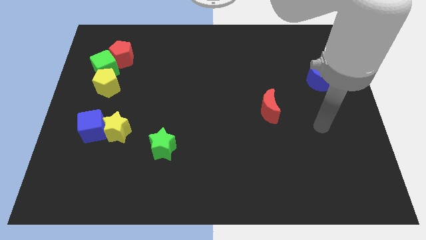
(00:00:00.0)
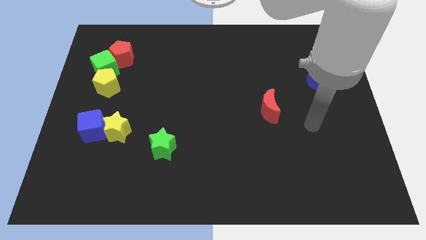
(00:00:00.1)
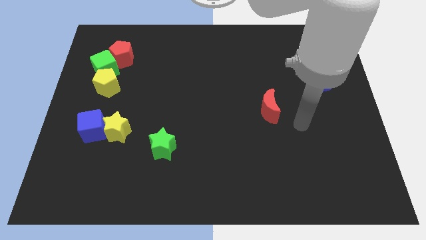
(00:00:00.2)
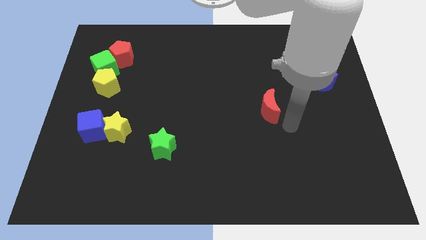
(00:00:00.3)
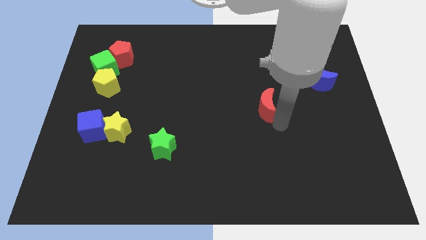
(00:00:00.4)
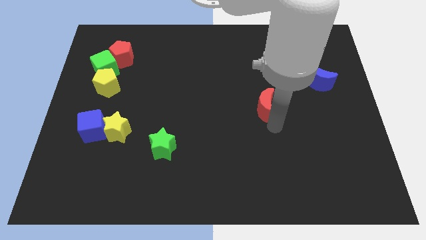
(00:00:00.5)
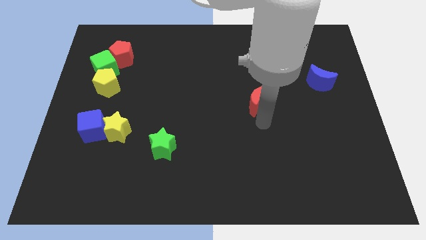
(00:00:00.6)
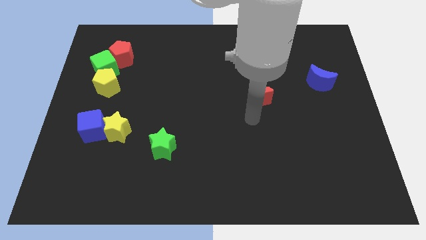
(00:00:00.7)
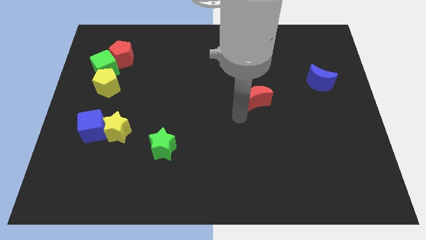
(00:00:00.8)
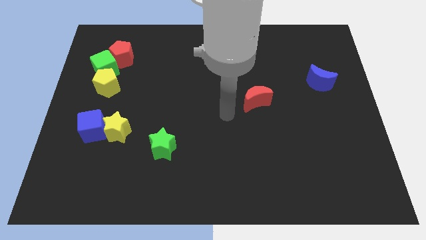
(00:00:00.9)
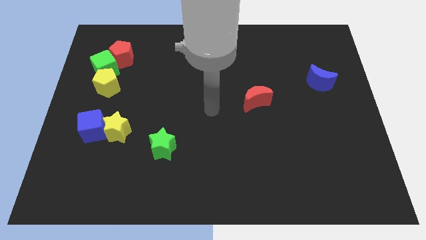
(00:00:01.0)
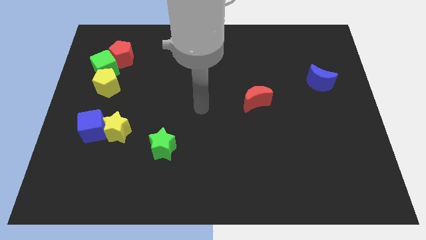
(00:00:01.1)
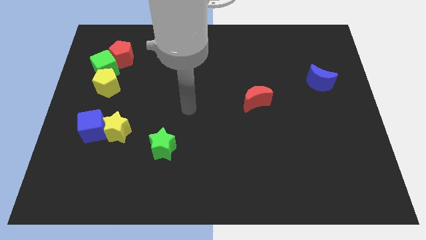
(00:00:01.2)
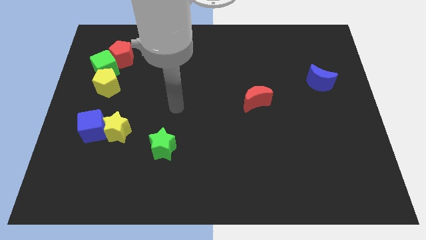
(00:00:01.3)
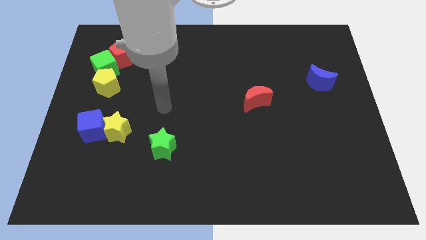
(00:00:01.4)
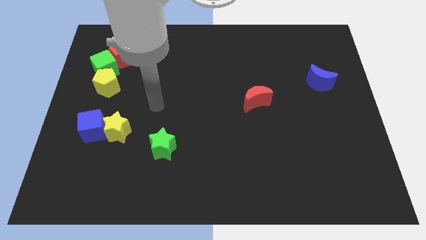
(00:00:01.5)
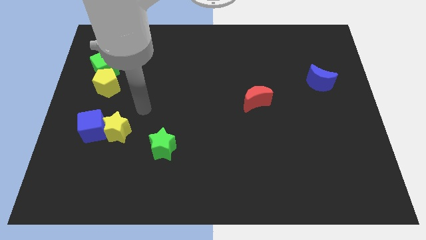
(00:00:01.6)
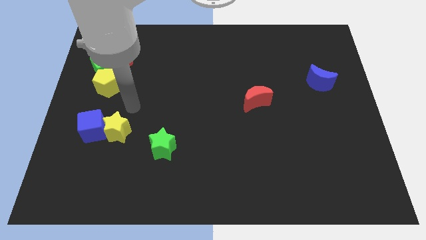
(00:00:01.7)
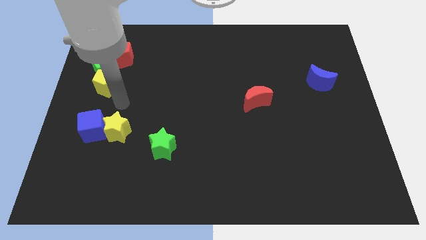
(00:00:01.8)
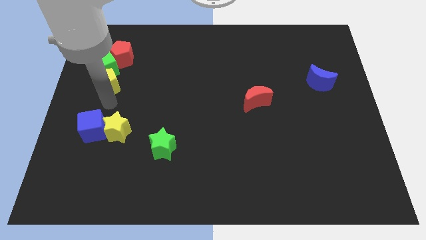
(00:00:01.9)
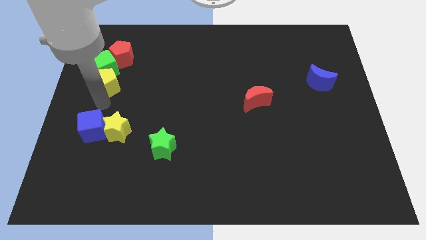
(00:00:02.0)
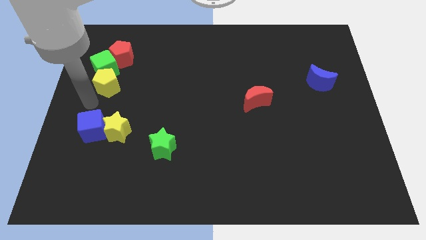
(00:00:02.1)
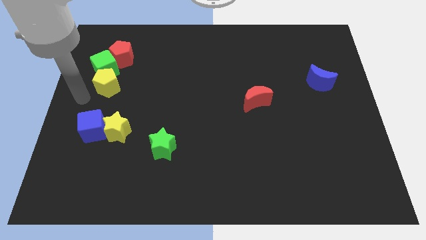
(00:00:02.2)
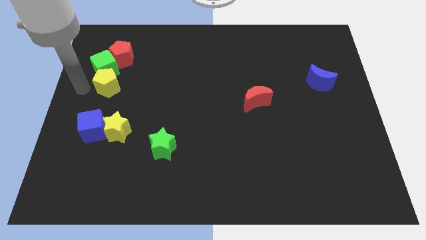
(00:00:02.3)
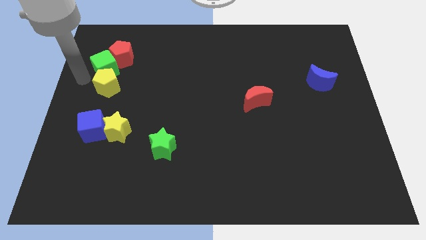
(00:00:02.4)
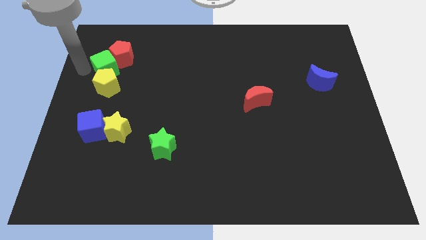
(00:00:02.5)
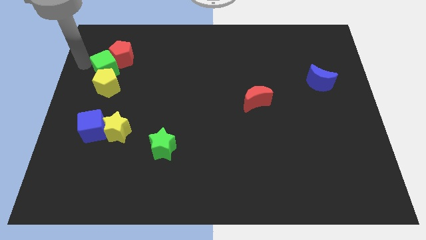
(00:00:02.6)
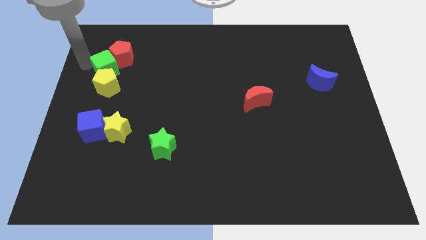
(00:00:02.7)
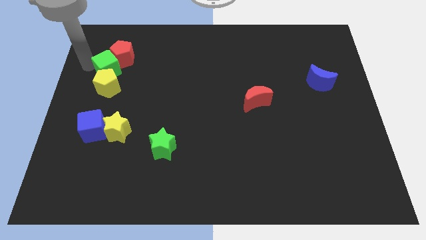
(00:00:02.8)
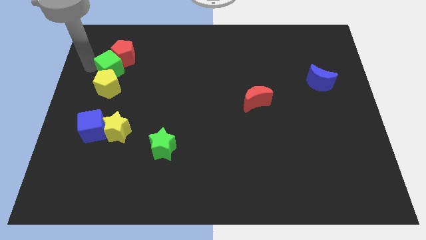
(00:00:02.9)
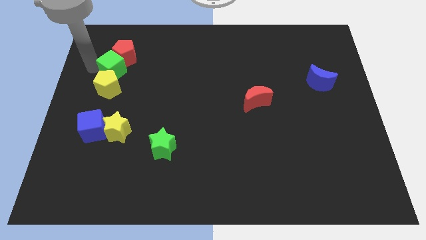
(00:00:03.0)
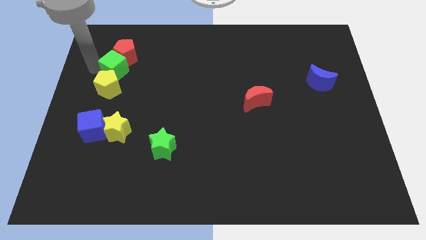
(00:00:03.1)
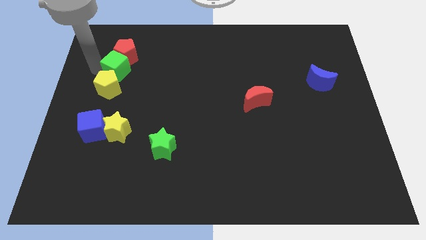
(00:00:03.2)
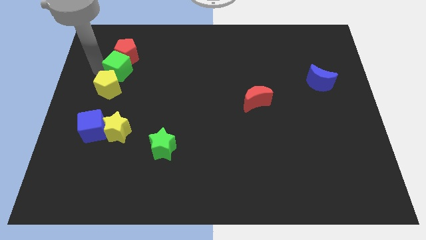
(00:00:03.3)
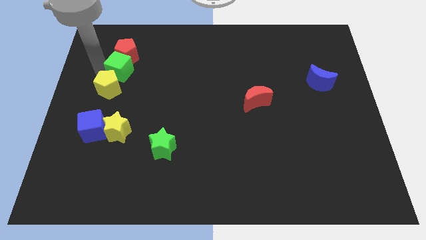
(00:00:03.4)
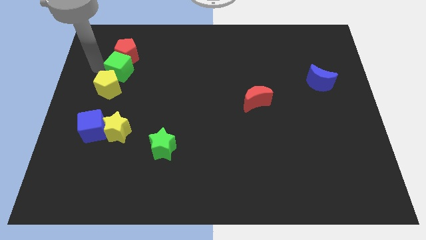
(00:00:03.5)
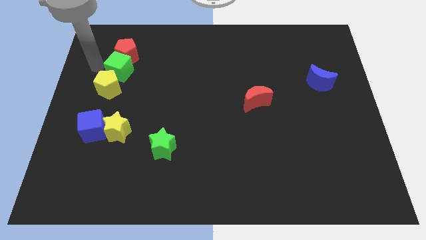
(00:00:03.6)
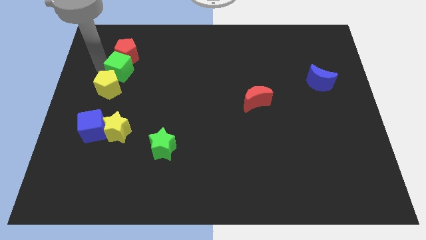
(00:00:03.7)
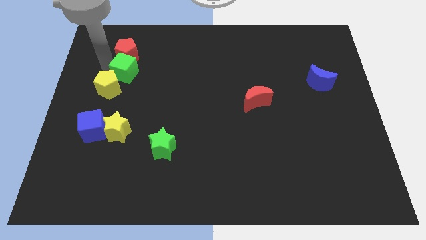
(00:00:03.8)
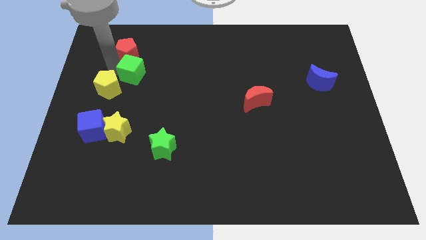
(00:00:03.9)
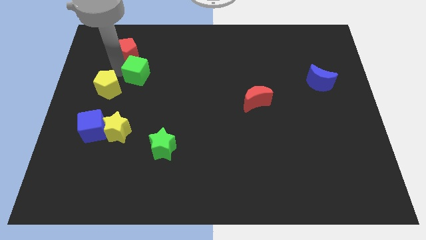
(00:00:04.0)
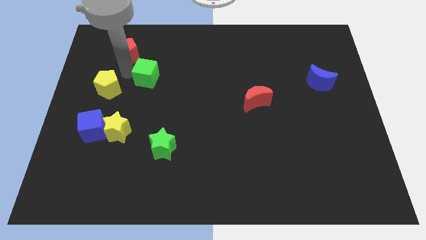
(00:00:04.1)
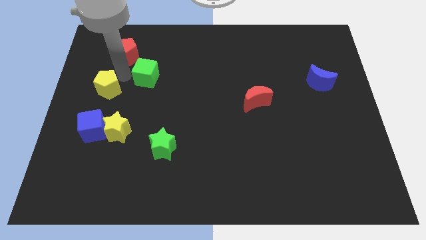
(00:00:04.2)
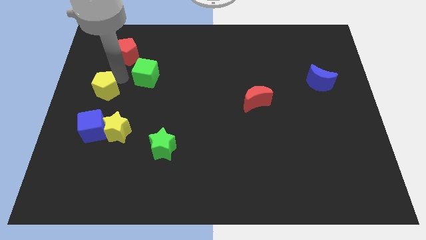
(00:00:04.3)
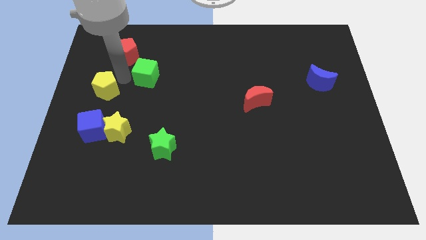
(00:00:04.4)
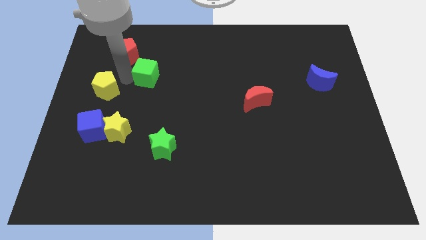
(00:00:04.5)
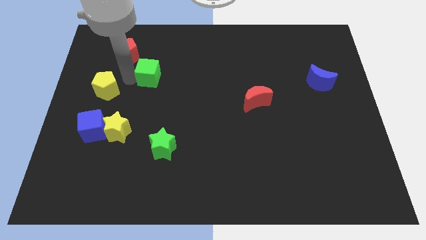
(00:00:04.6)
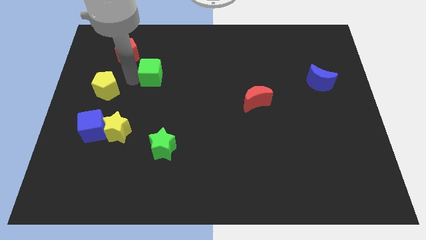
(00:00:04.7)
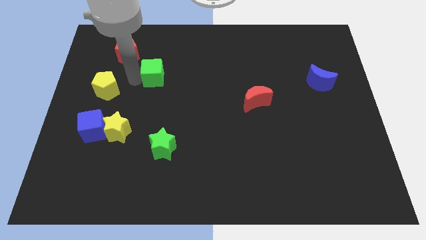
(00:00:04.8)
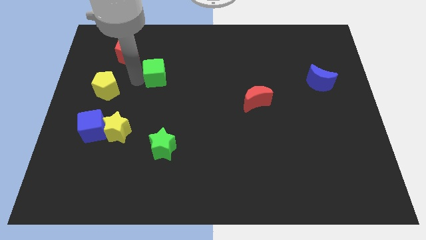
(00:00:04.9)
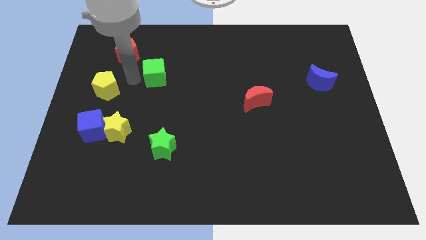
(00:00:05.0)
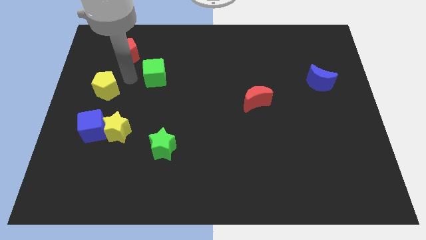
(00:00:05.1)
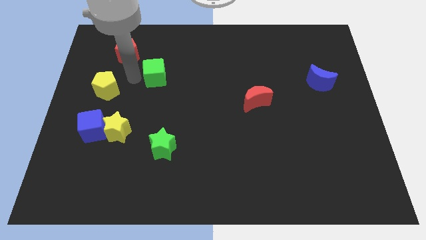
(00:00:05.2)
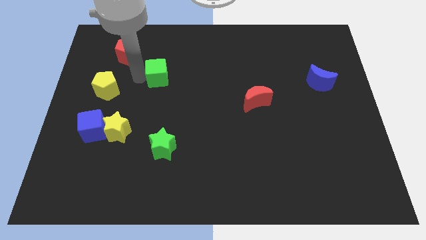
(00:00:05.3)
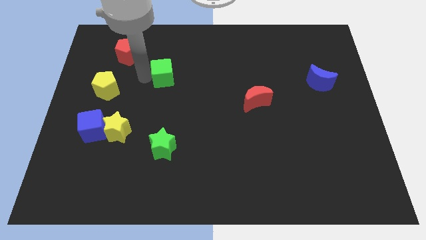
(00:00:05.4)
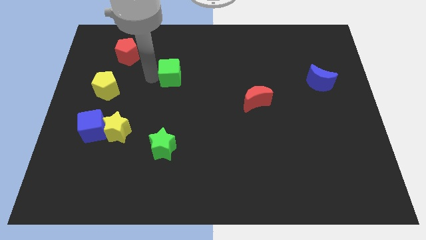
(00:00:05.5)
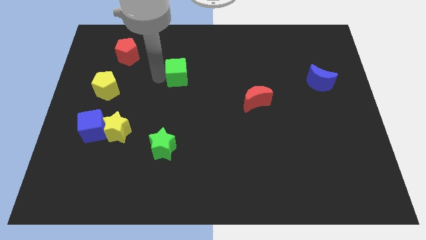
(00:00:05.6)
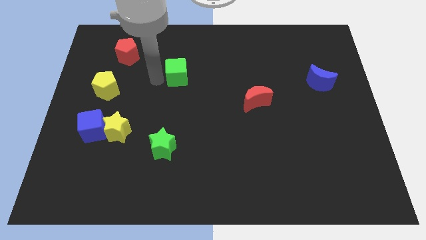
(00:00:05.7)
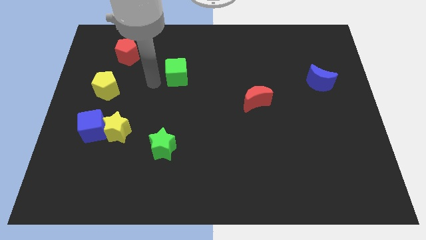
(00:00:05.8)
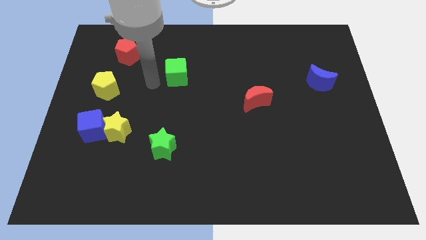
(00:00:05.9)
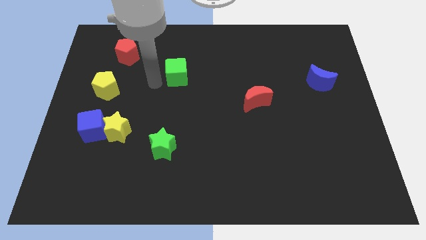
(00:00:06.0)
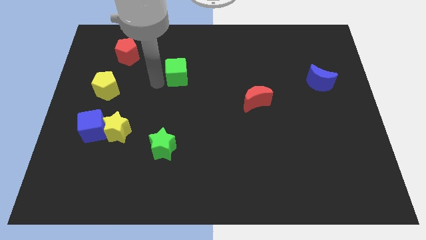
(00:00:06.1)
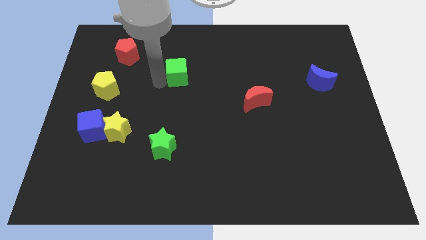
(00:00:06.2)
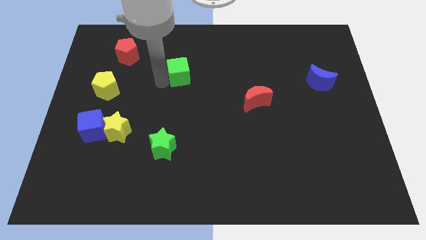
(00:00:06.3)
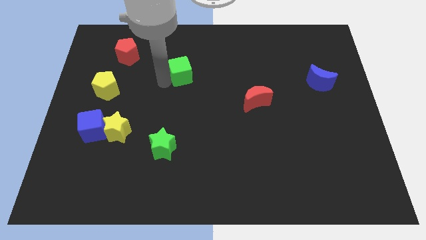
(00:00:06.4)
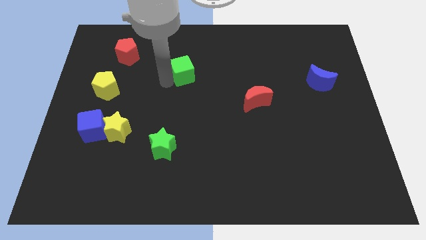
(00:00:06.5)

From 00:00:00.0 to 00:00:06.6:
move the green cube to the right

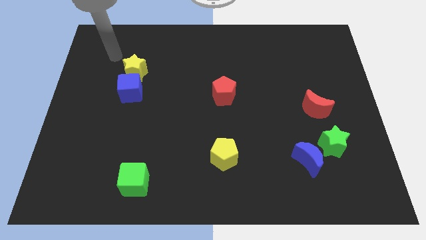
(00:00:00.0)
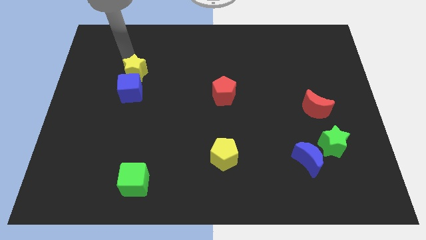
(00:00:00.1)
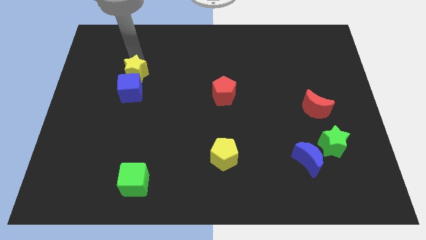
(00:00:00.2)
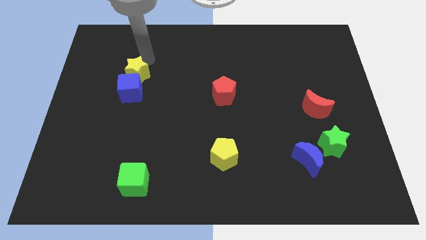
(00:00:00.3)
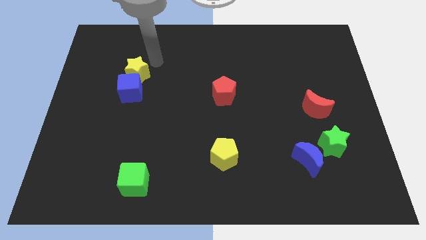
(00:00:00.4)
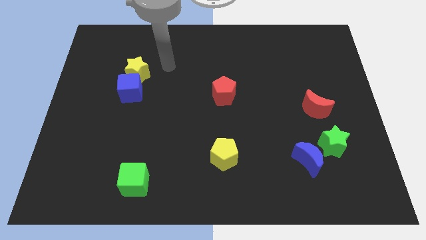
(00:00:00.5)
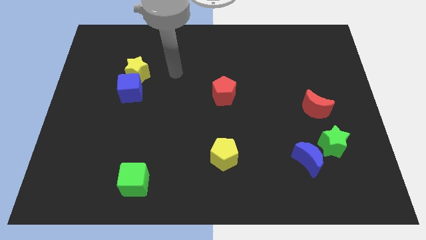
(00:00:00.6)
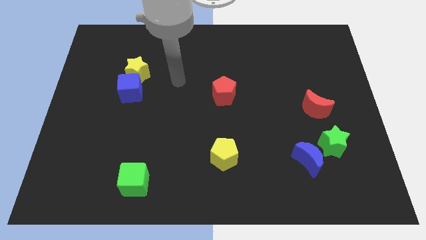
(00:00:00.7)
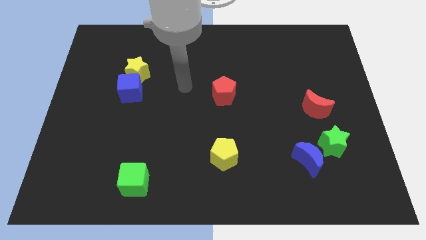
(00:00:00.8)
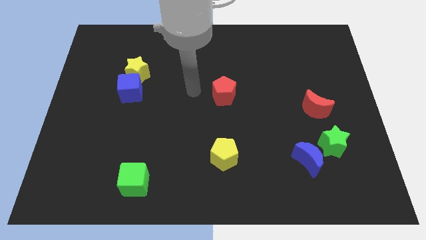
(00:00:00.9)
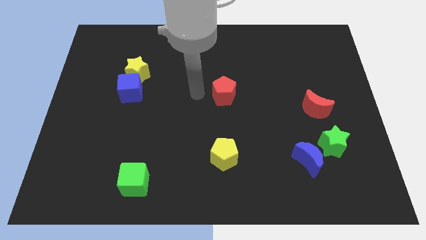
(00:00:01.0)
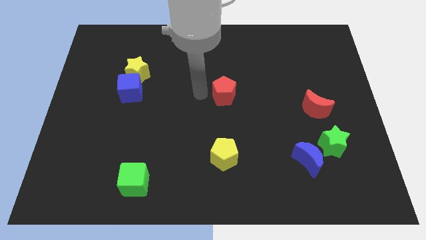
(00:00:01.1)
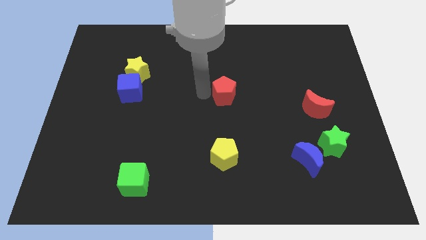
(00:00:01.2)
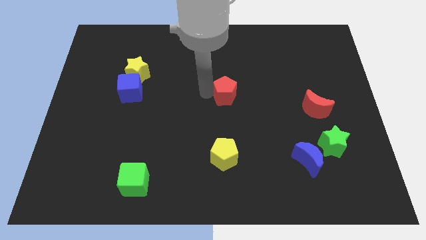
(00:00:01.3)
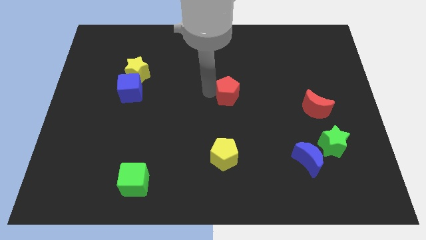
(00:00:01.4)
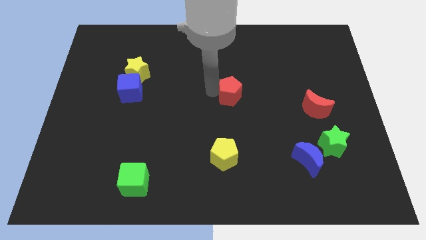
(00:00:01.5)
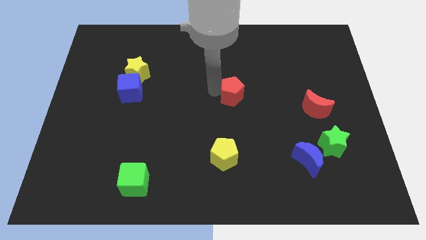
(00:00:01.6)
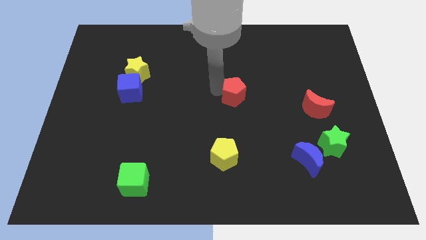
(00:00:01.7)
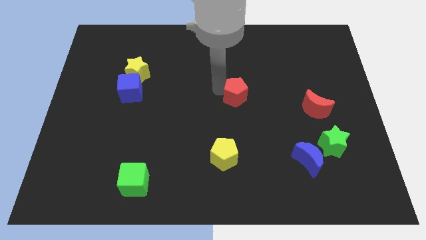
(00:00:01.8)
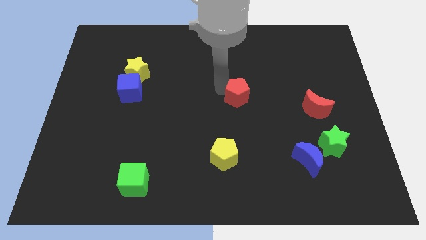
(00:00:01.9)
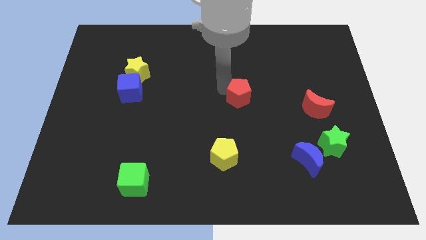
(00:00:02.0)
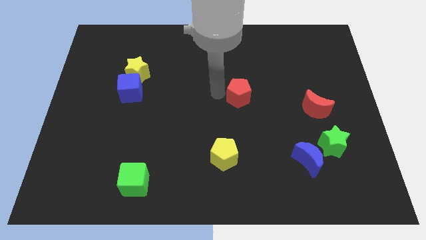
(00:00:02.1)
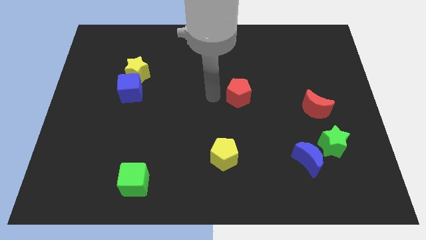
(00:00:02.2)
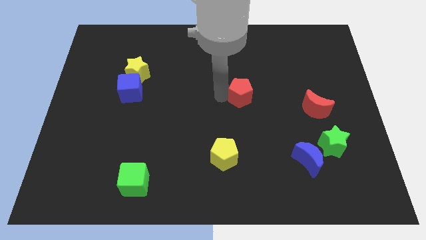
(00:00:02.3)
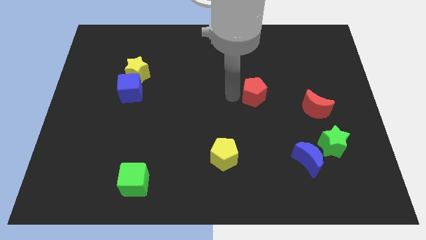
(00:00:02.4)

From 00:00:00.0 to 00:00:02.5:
slide the red pentagon to the right a little bit
